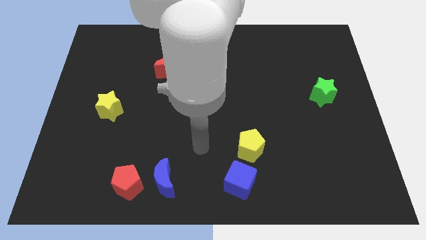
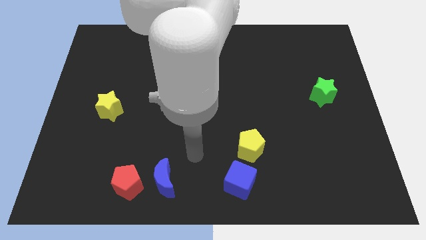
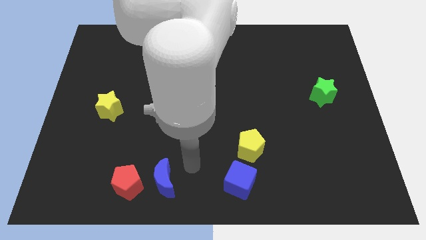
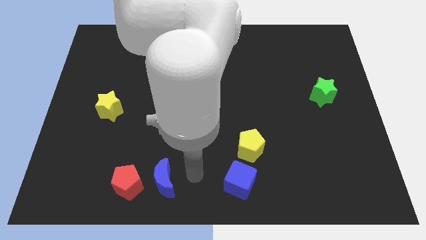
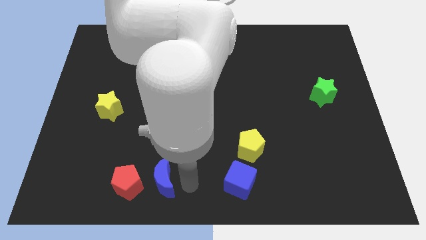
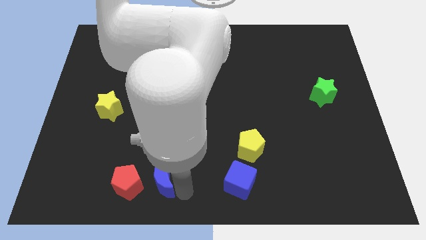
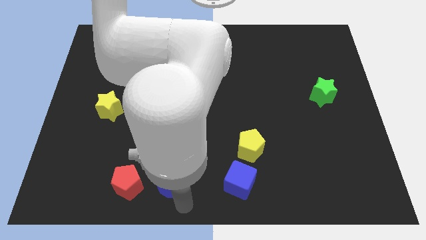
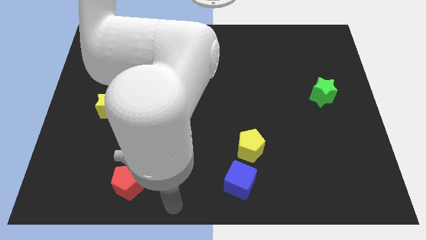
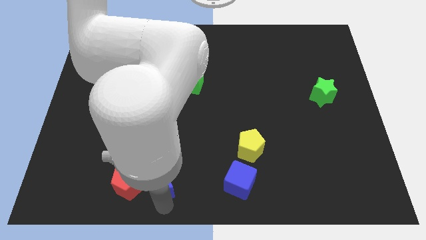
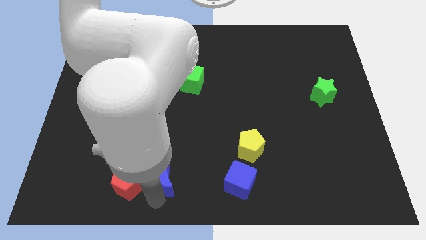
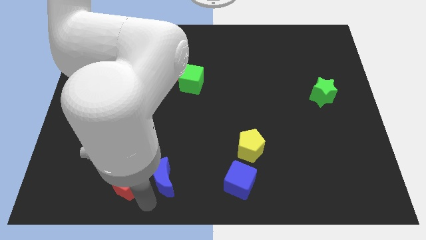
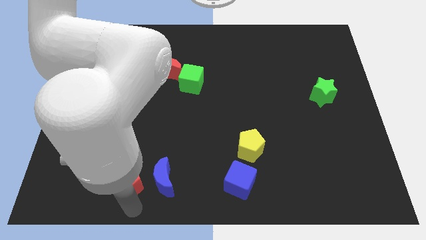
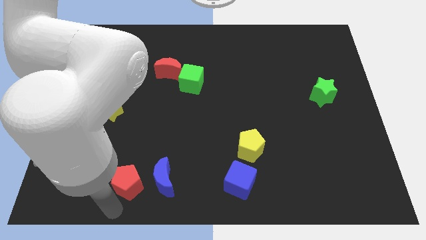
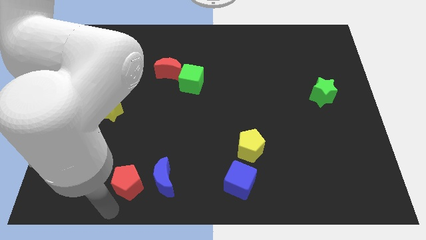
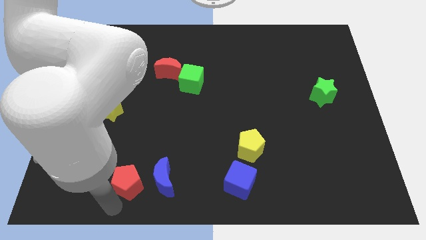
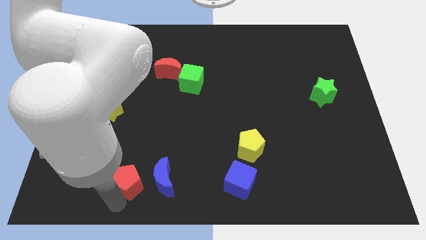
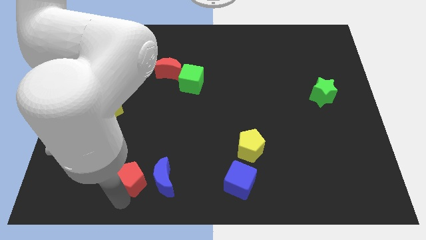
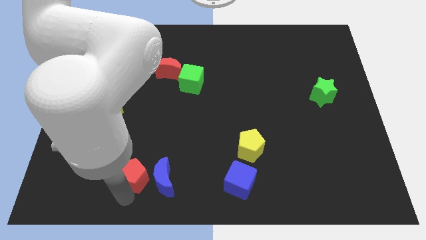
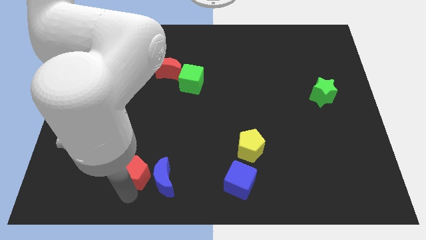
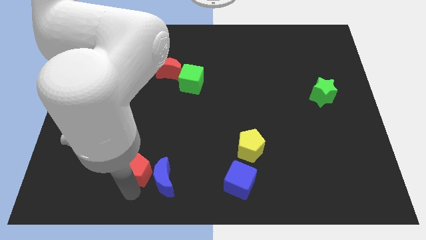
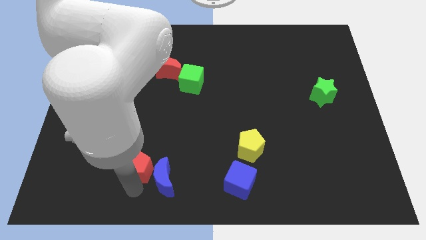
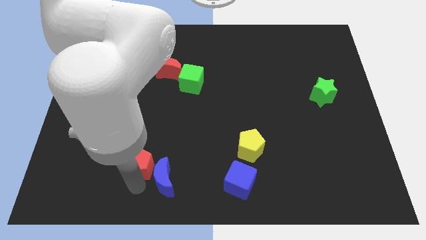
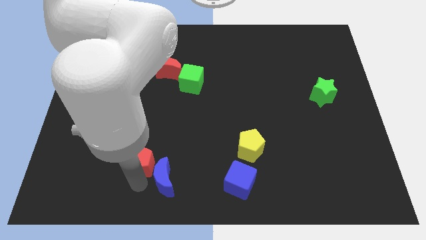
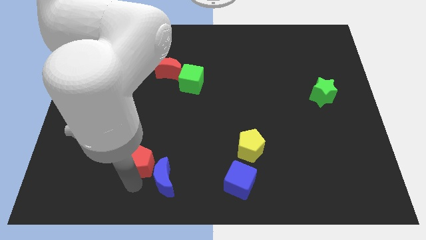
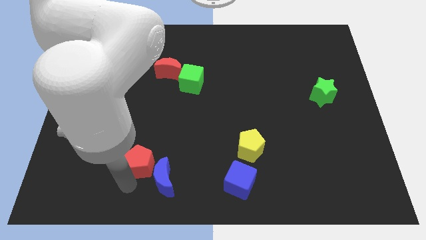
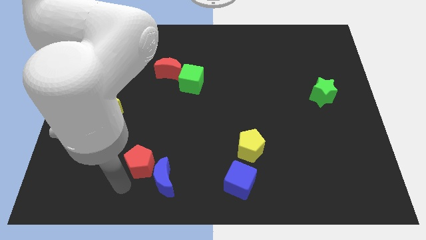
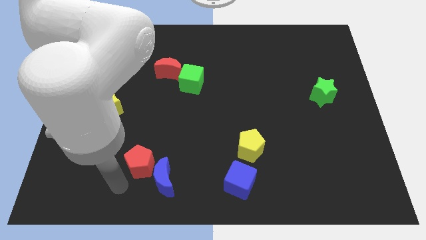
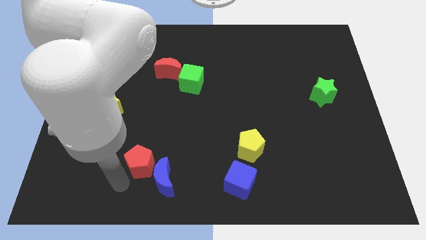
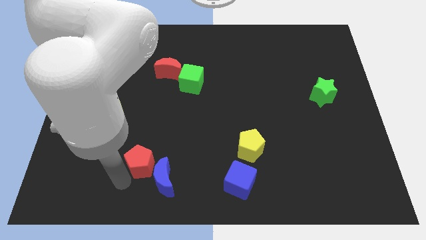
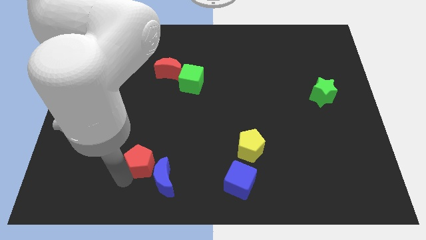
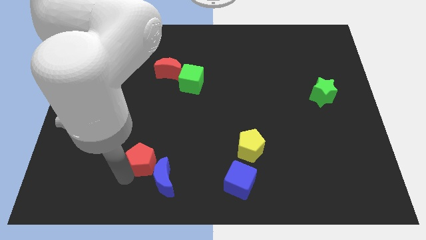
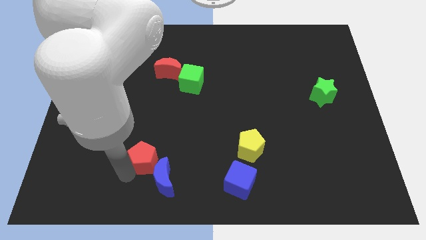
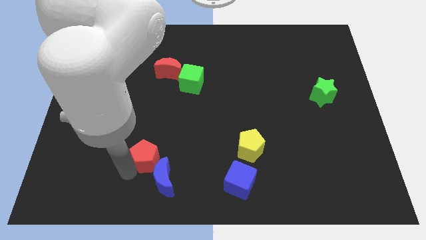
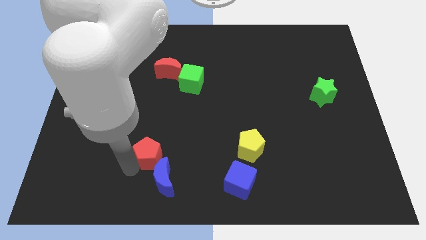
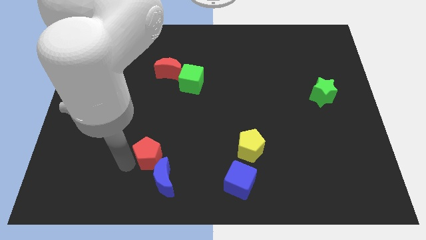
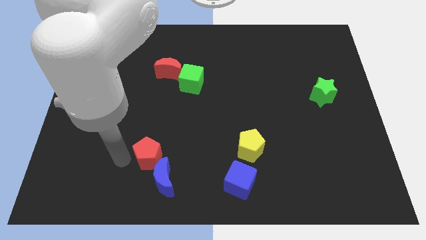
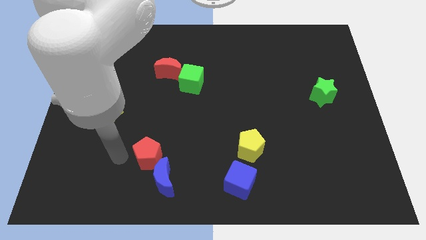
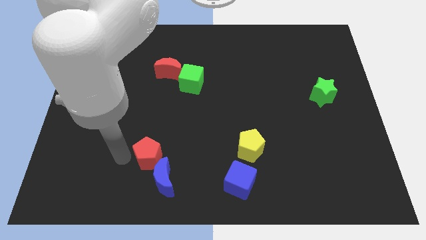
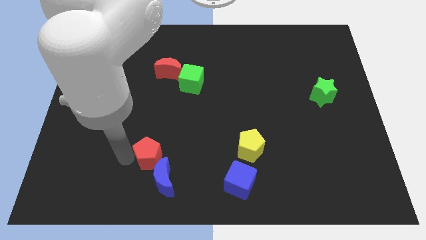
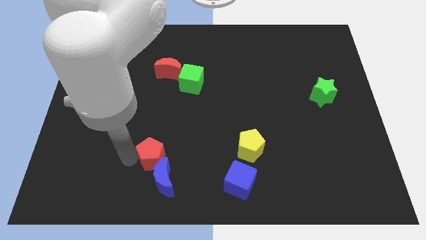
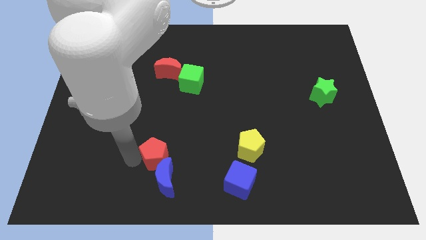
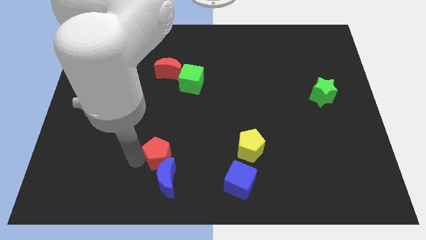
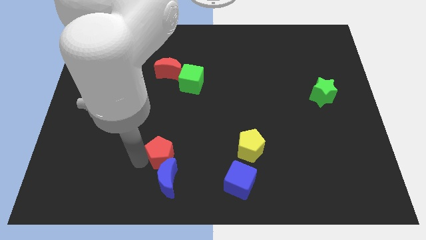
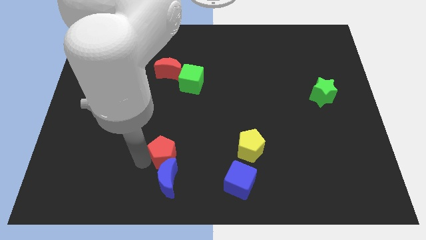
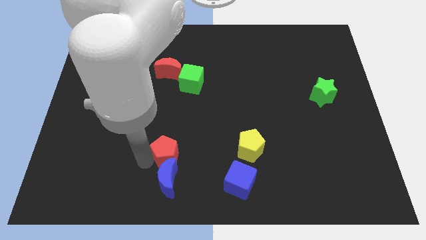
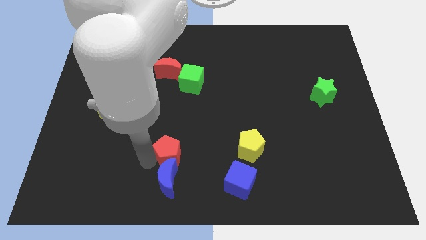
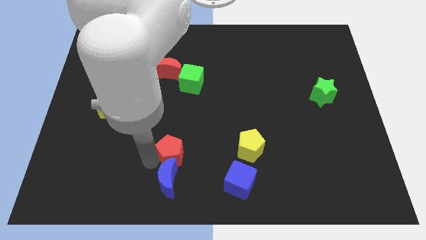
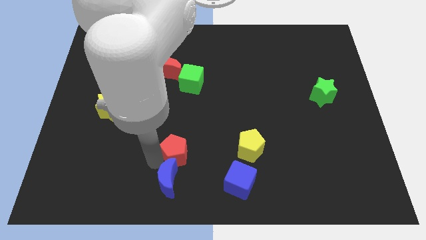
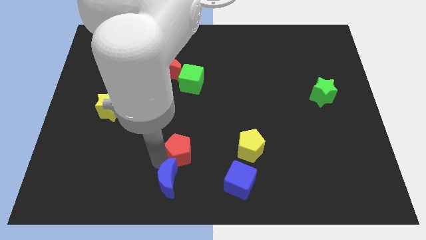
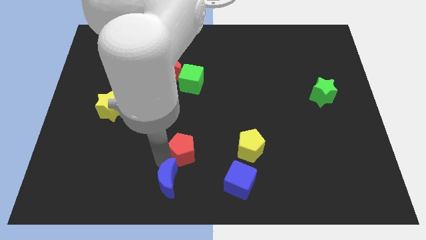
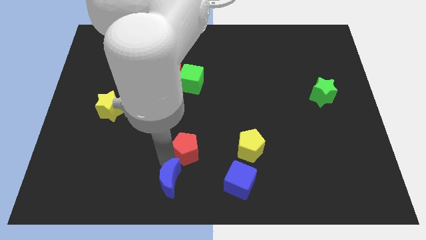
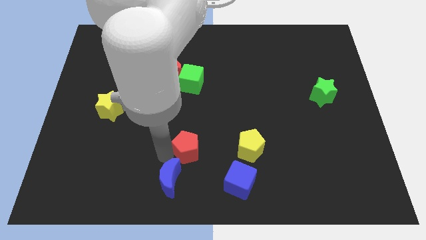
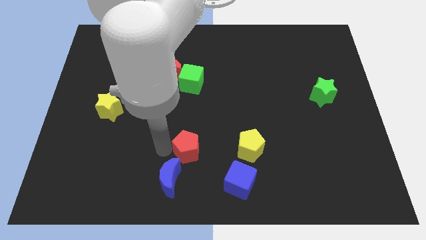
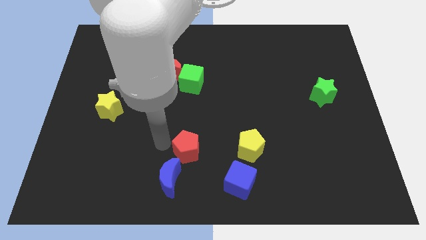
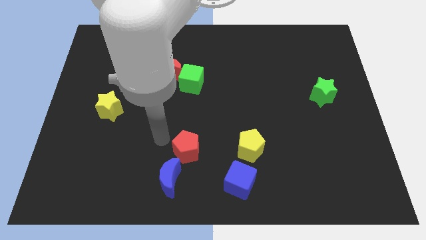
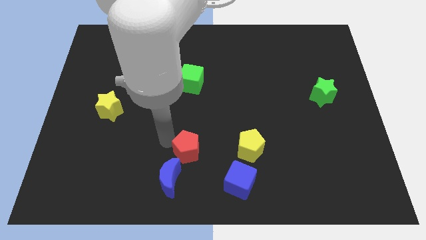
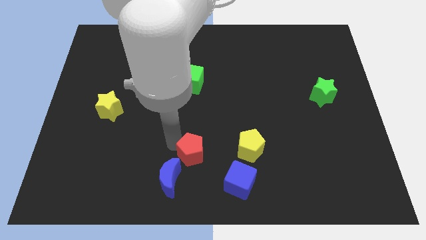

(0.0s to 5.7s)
slide the red pentagon to the top left side of the blue cube

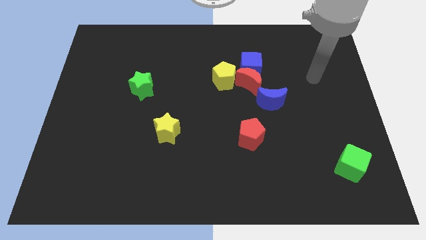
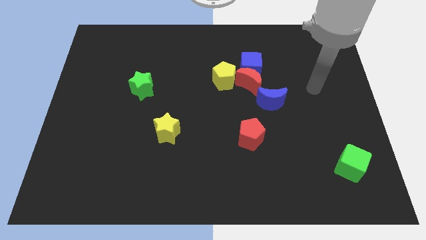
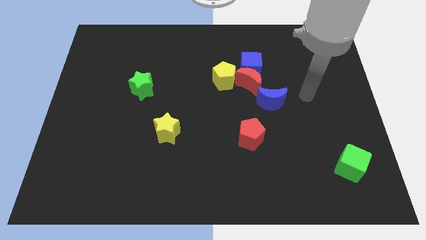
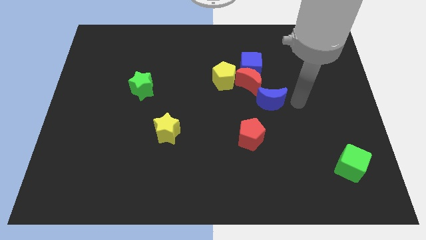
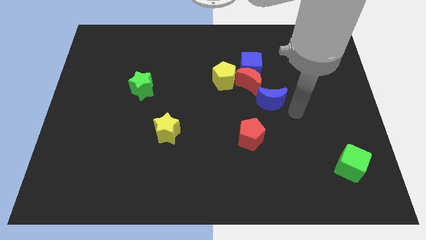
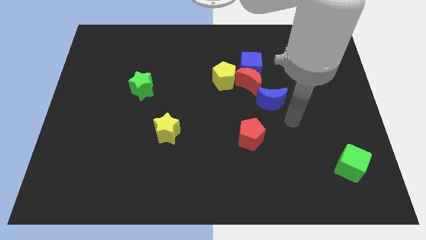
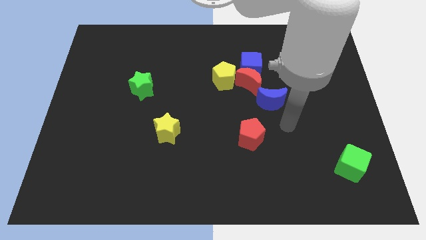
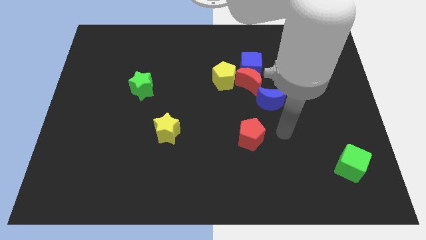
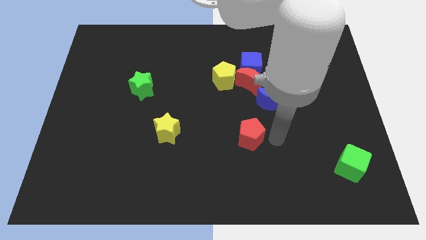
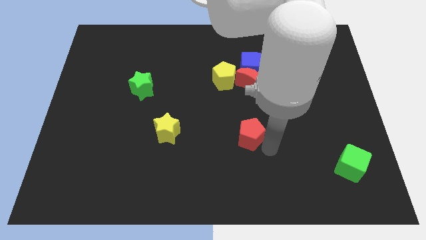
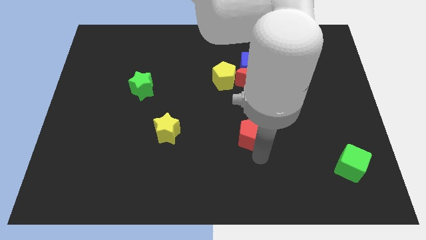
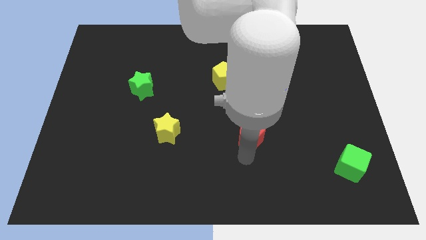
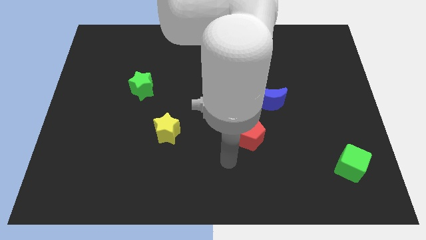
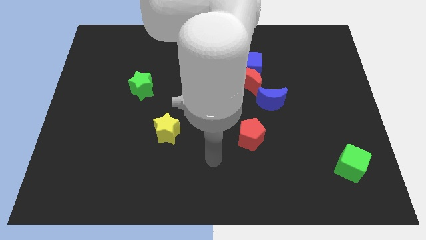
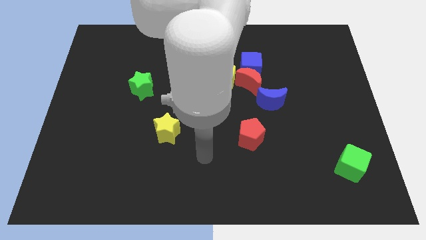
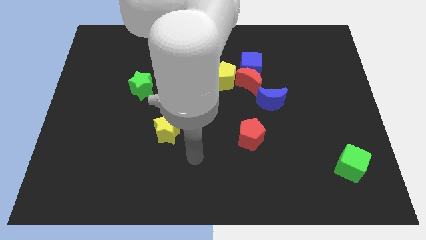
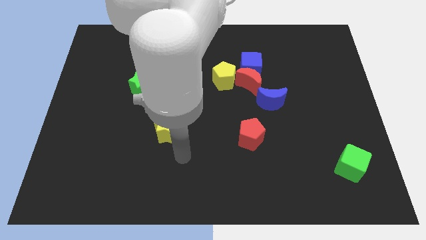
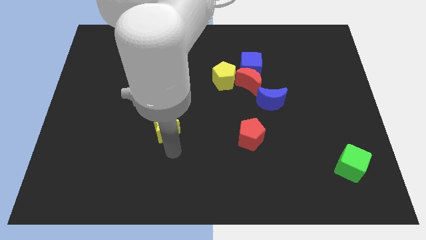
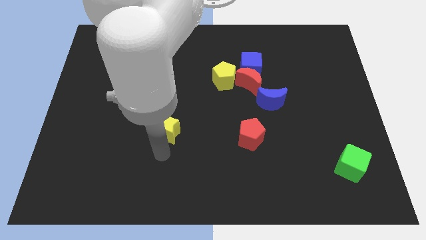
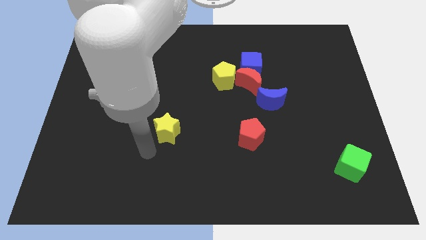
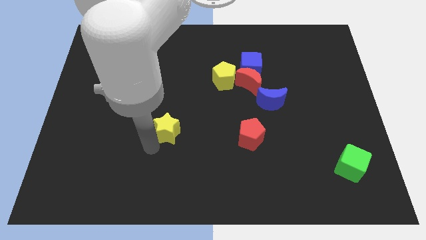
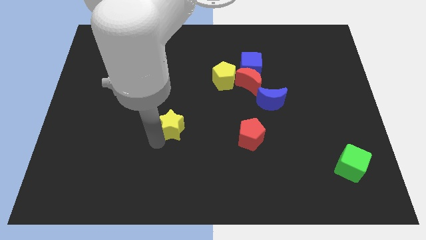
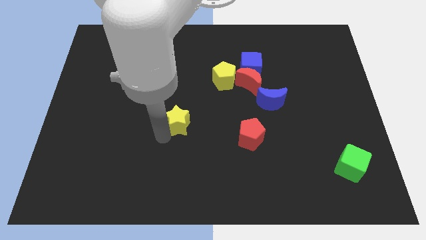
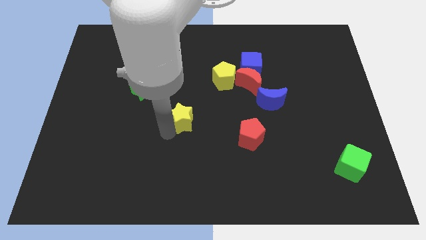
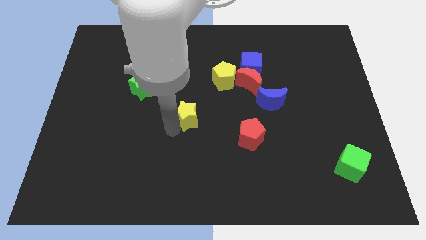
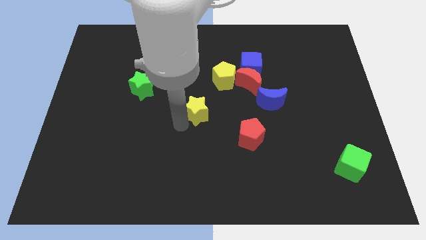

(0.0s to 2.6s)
put the yellow star diagonally down and to the left of the yellow pentagon
